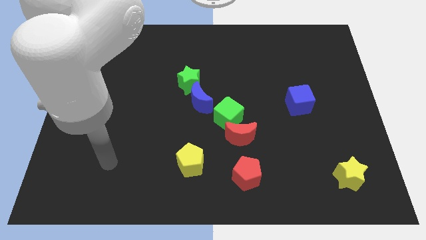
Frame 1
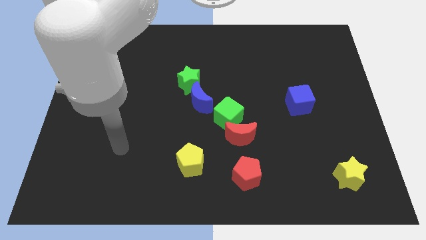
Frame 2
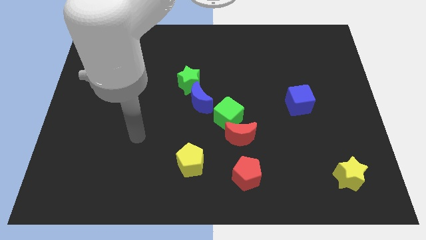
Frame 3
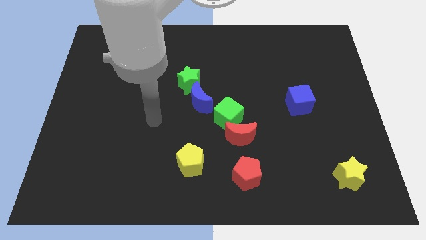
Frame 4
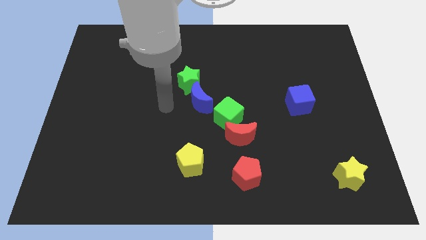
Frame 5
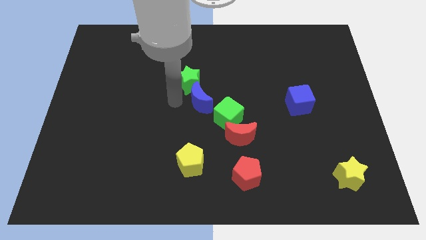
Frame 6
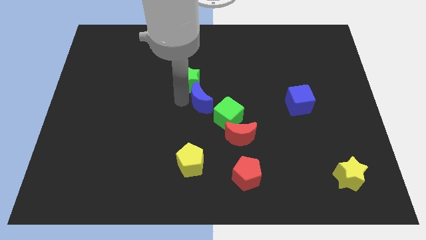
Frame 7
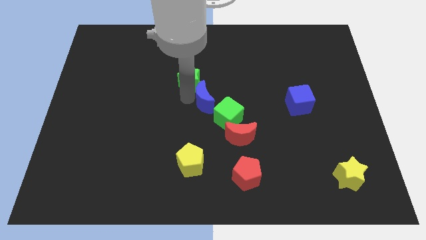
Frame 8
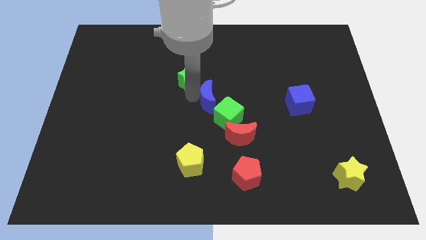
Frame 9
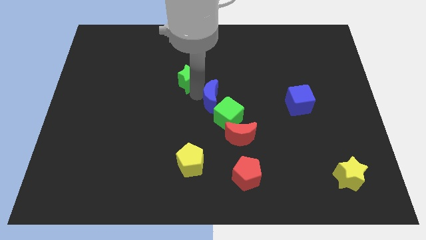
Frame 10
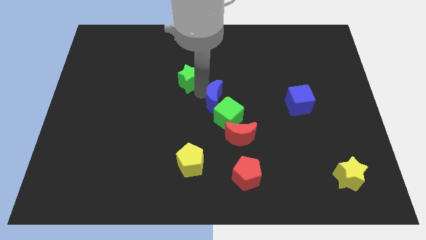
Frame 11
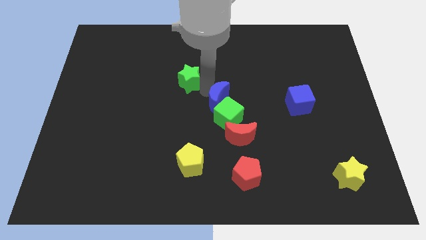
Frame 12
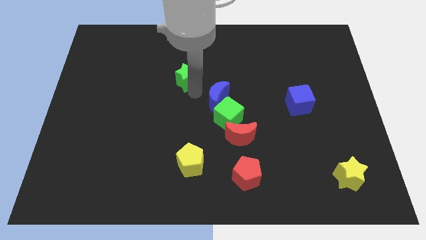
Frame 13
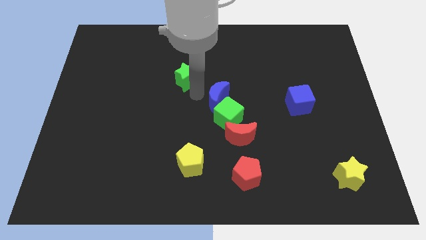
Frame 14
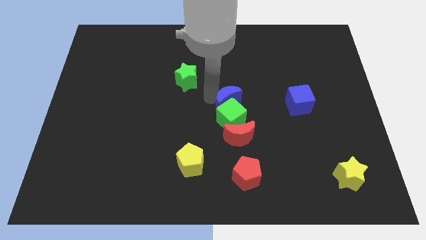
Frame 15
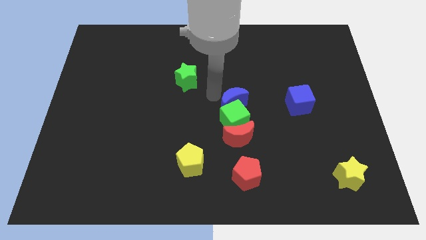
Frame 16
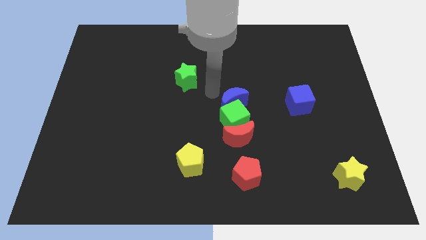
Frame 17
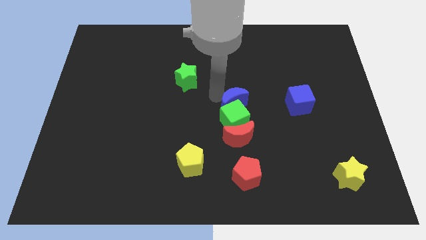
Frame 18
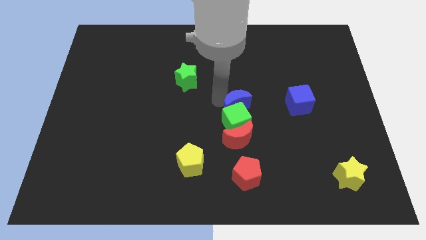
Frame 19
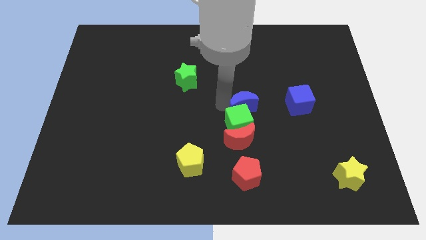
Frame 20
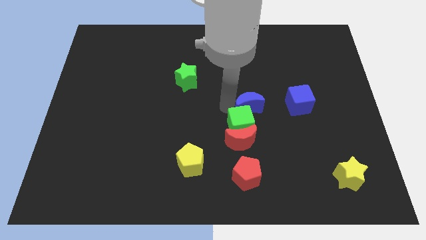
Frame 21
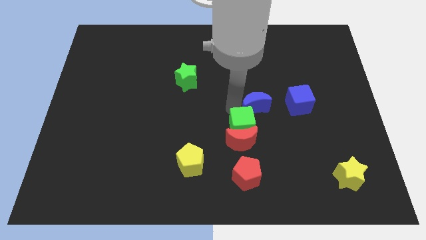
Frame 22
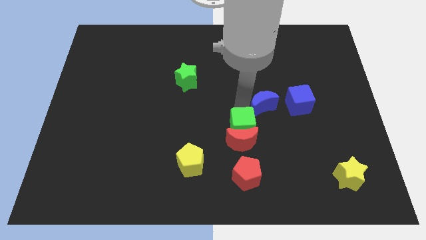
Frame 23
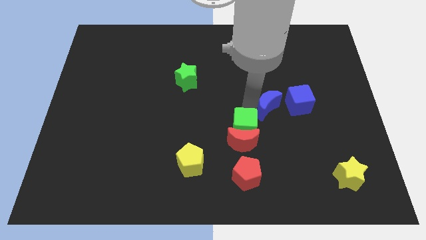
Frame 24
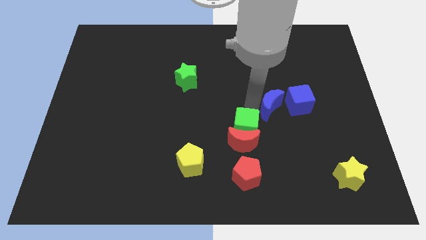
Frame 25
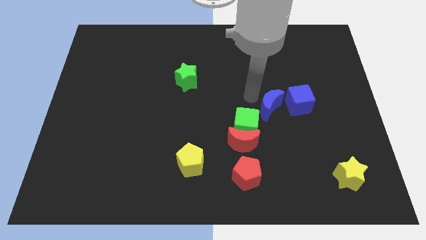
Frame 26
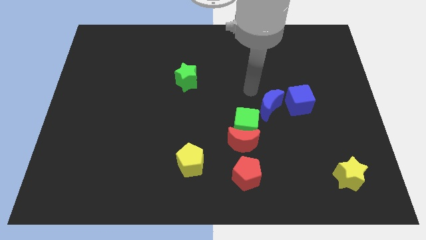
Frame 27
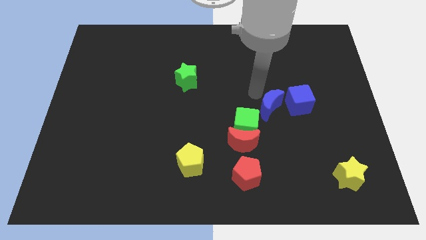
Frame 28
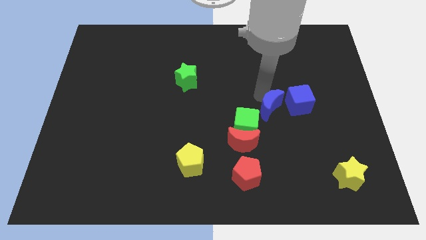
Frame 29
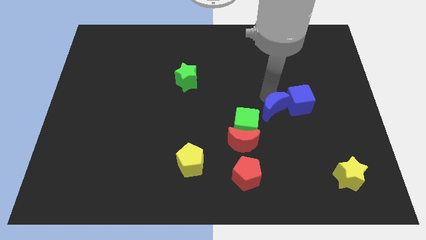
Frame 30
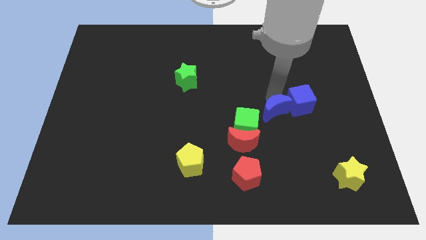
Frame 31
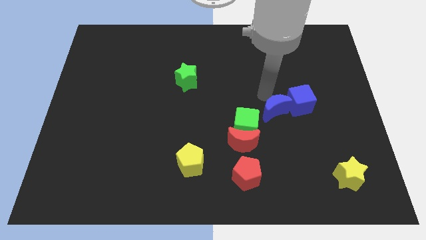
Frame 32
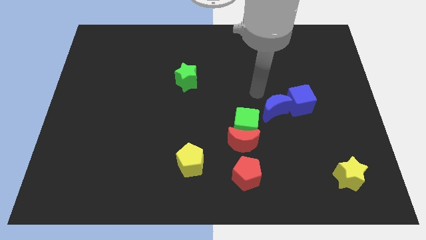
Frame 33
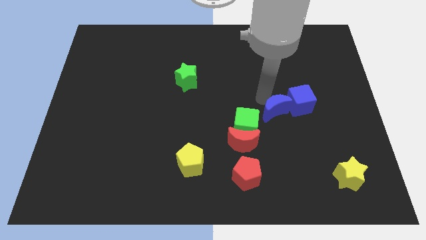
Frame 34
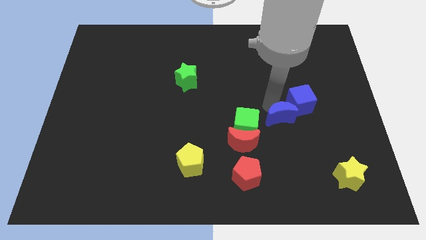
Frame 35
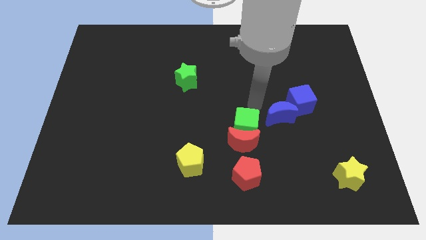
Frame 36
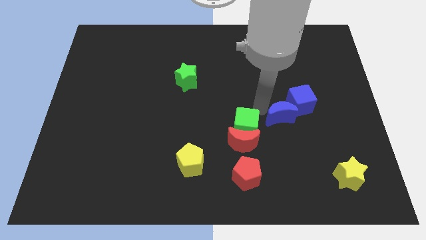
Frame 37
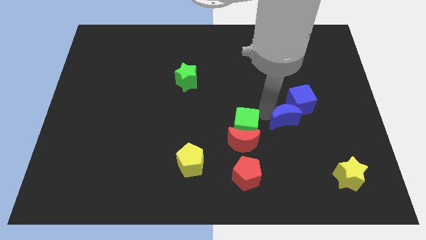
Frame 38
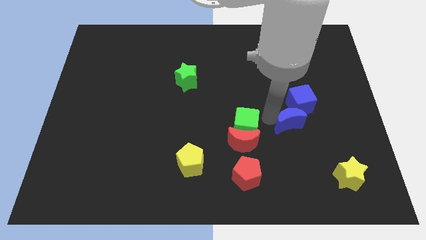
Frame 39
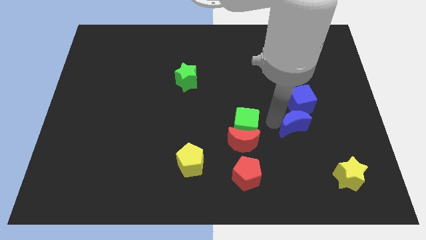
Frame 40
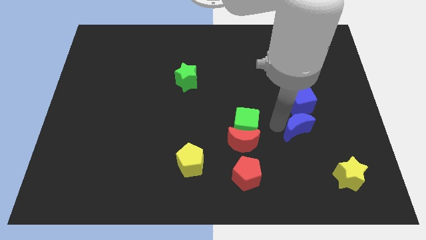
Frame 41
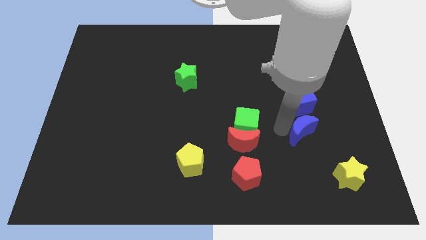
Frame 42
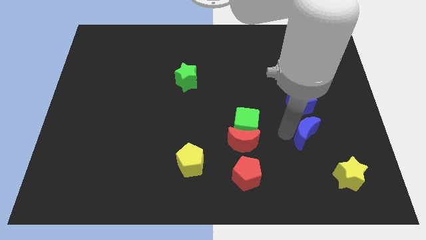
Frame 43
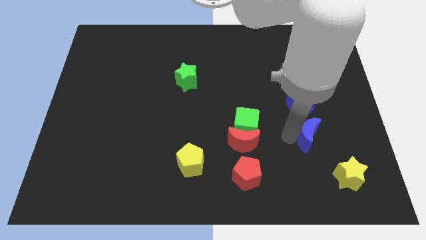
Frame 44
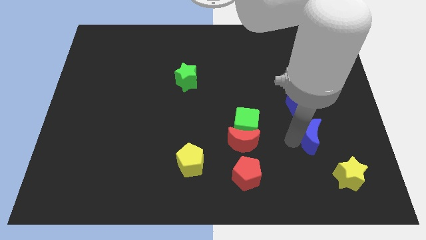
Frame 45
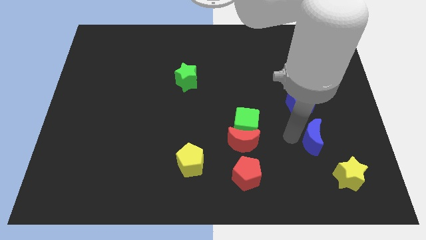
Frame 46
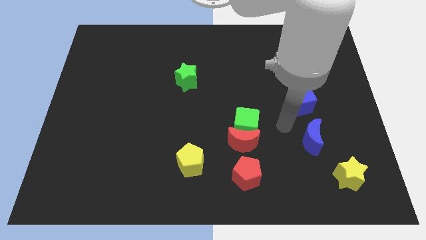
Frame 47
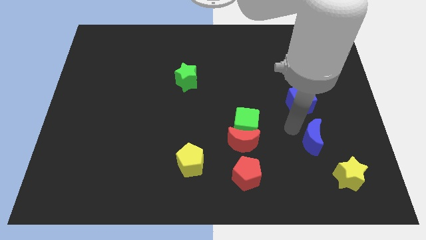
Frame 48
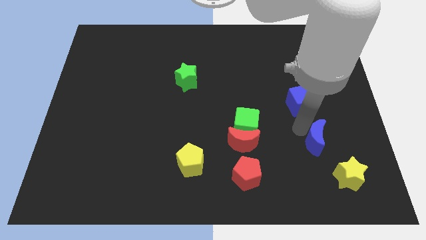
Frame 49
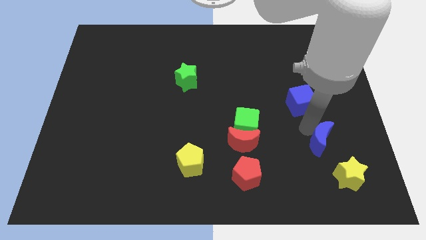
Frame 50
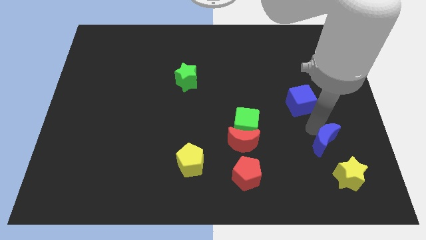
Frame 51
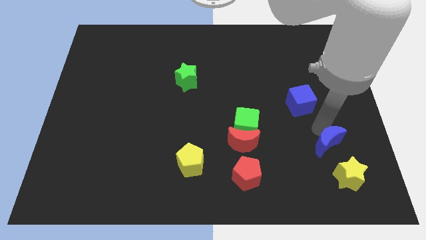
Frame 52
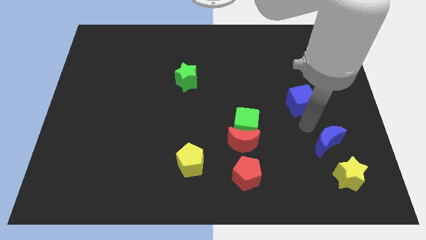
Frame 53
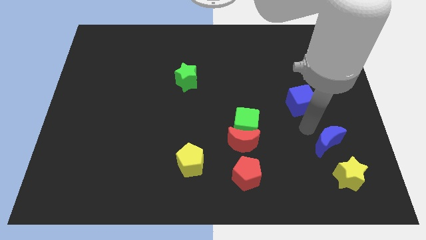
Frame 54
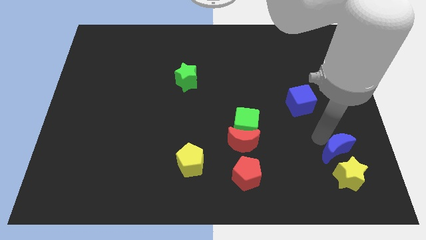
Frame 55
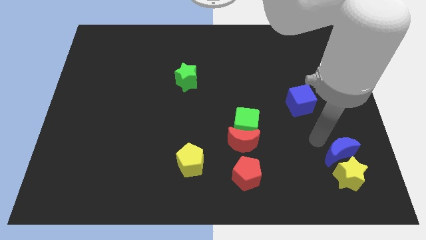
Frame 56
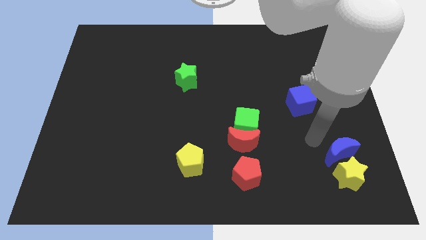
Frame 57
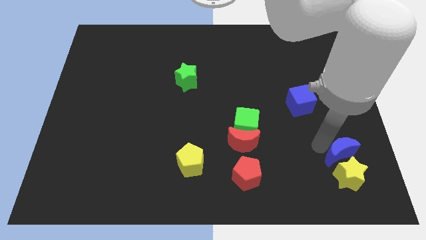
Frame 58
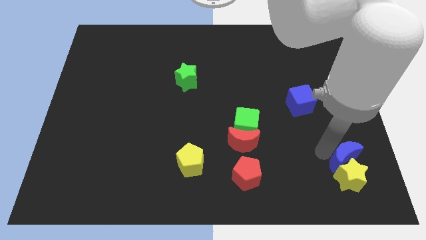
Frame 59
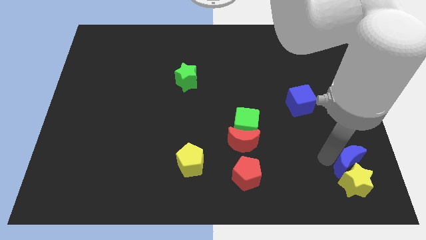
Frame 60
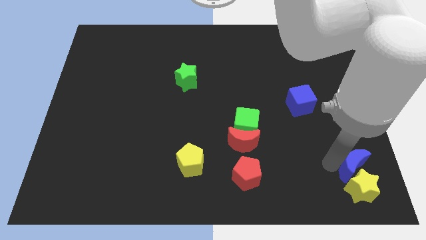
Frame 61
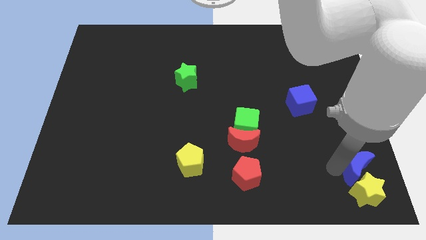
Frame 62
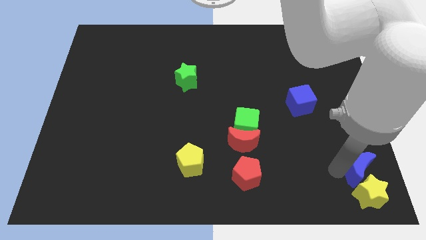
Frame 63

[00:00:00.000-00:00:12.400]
push the blue moon to the bottom right of the board
